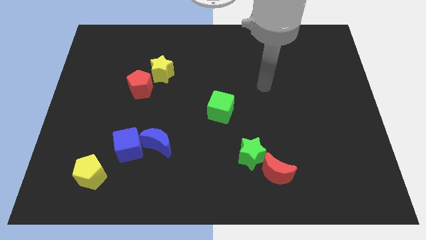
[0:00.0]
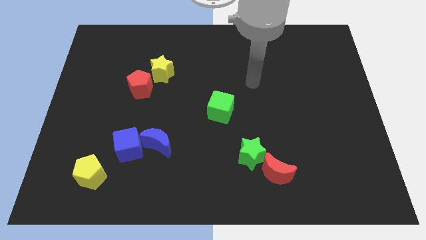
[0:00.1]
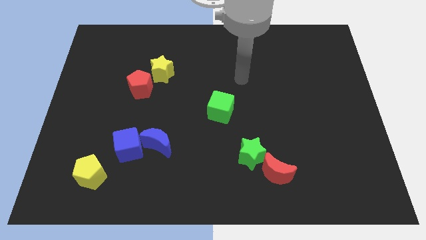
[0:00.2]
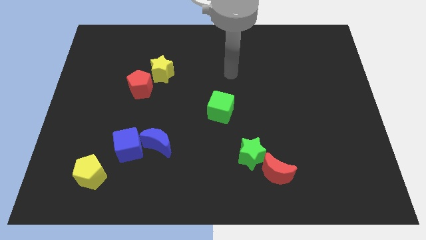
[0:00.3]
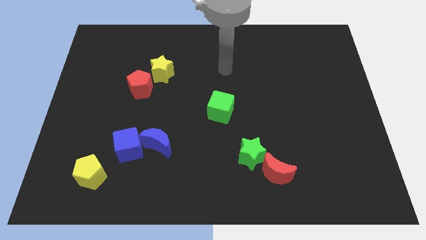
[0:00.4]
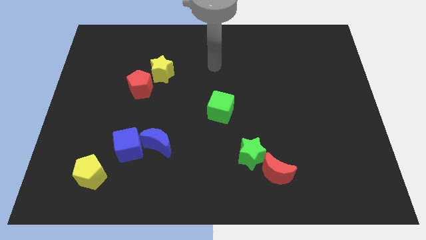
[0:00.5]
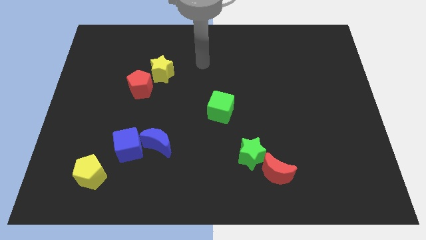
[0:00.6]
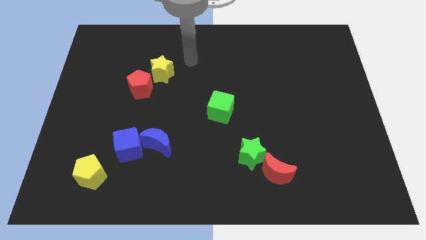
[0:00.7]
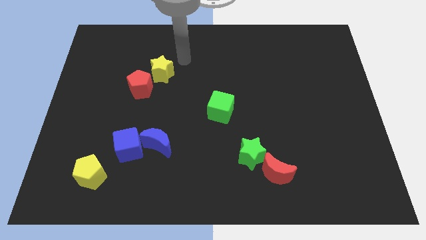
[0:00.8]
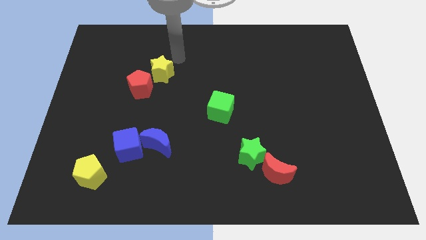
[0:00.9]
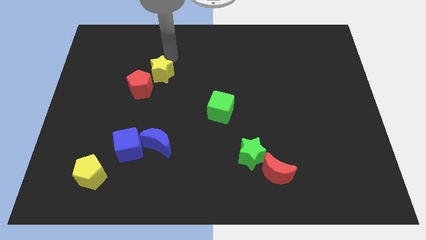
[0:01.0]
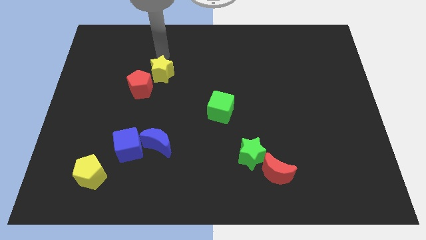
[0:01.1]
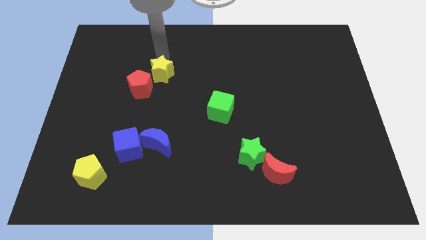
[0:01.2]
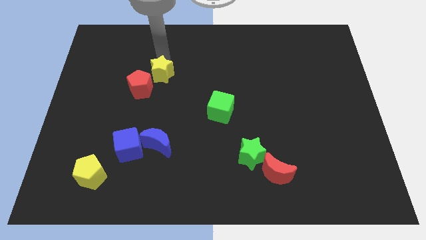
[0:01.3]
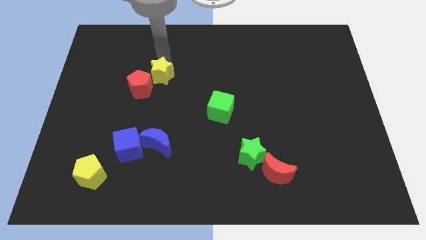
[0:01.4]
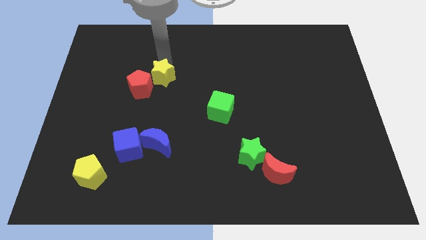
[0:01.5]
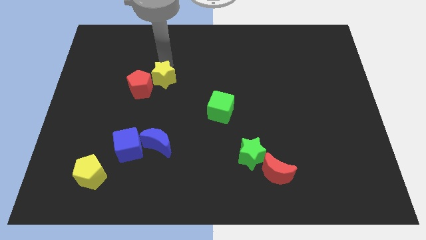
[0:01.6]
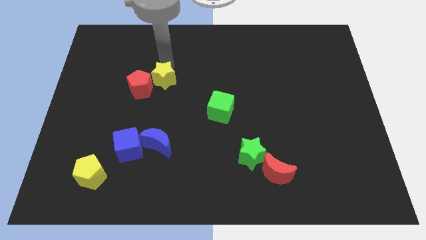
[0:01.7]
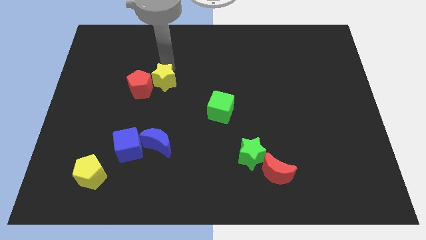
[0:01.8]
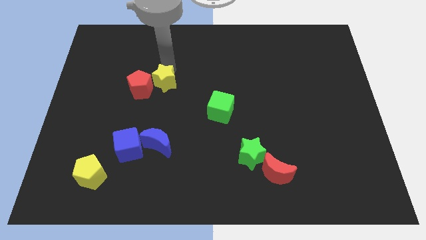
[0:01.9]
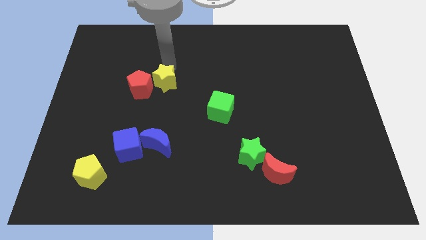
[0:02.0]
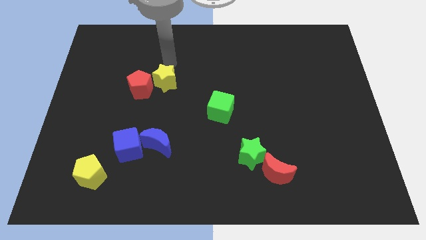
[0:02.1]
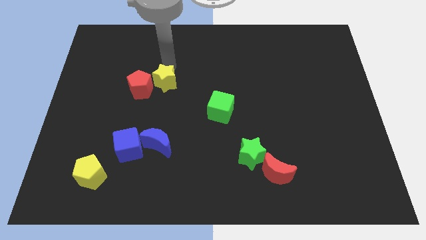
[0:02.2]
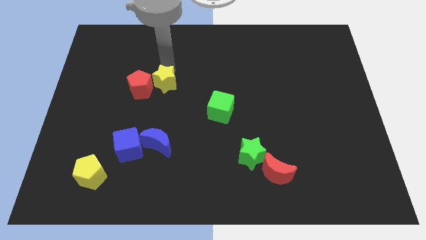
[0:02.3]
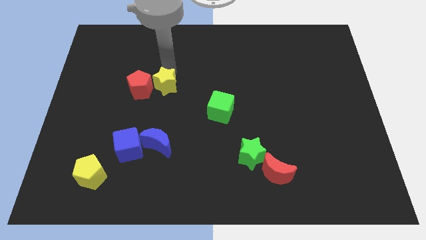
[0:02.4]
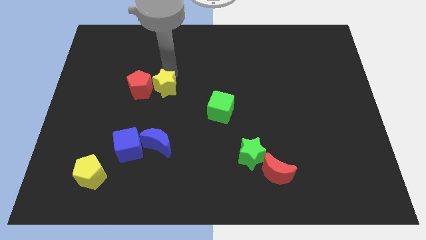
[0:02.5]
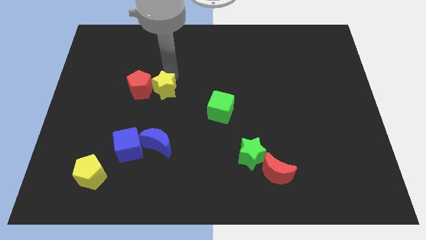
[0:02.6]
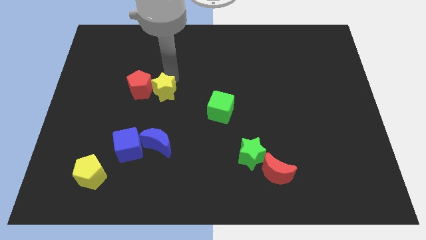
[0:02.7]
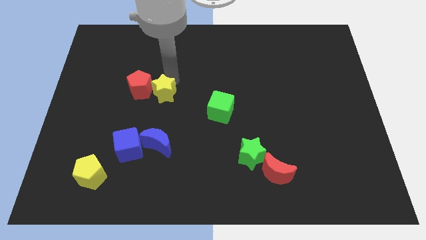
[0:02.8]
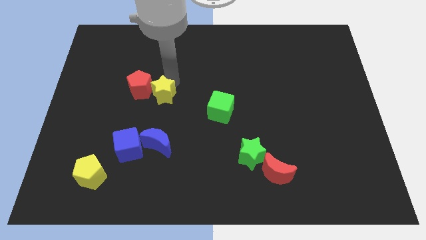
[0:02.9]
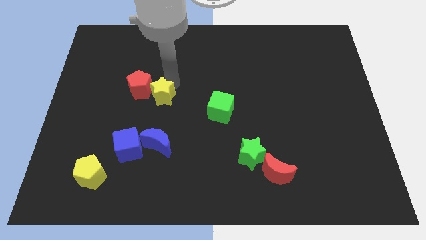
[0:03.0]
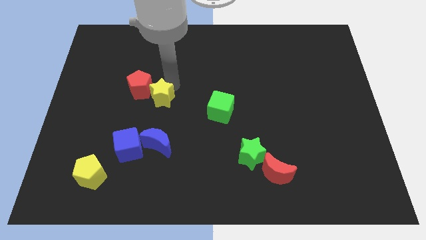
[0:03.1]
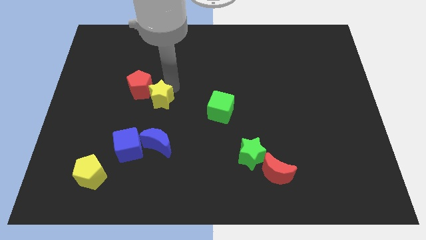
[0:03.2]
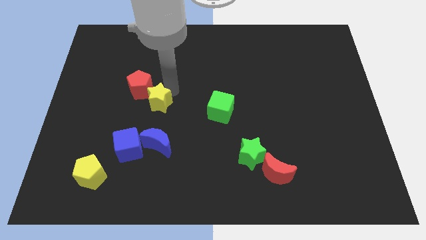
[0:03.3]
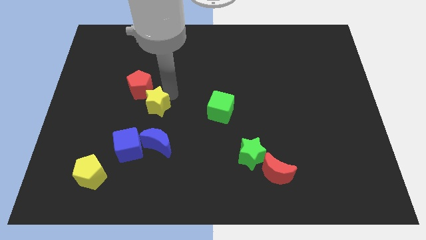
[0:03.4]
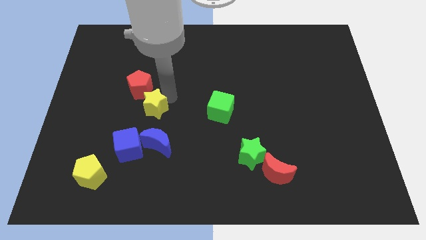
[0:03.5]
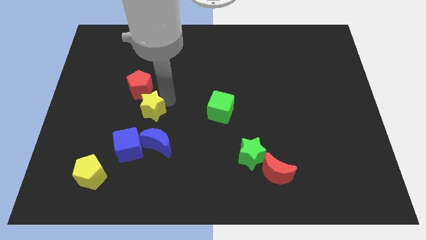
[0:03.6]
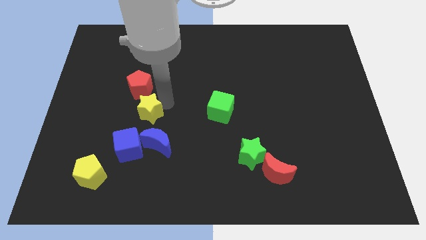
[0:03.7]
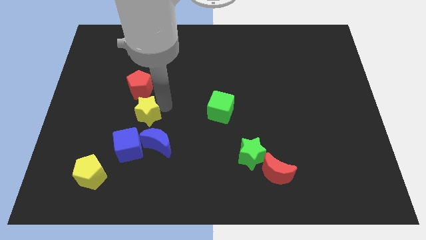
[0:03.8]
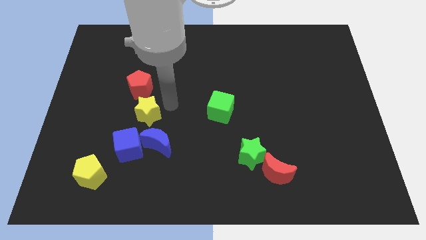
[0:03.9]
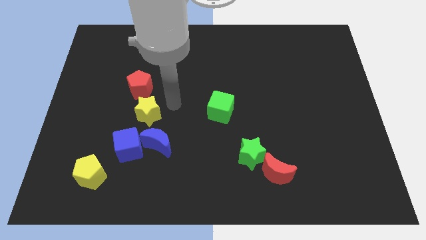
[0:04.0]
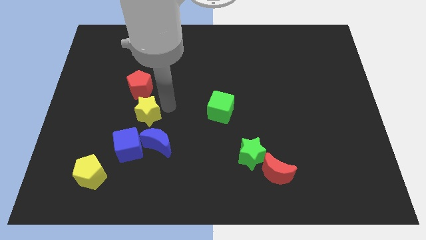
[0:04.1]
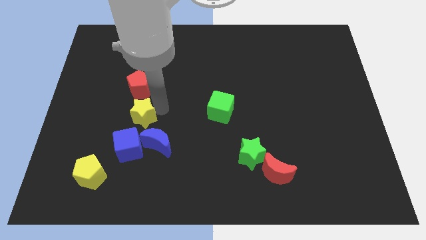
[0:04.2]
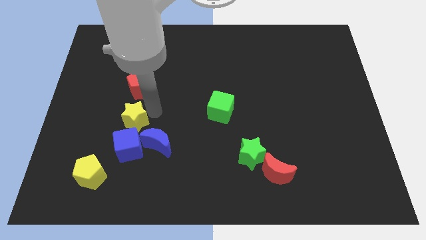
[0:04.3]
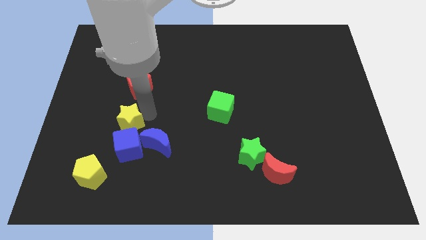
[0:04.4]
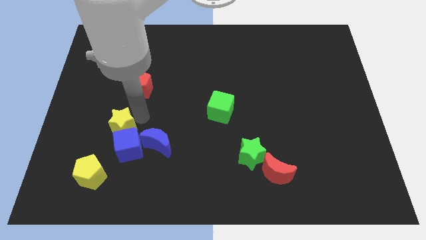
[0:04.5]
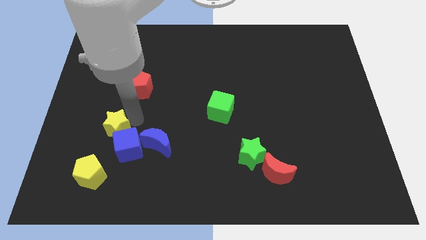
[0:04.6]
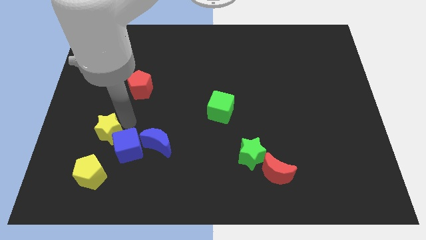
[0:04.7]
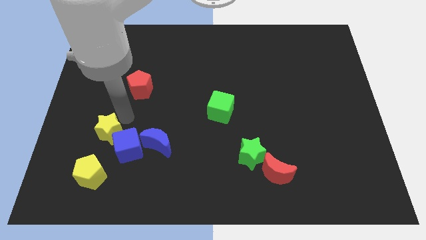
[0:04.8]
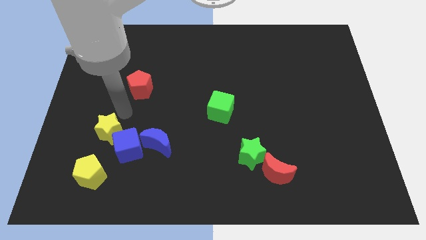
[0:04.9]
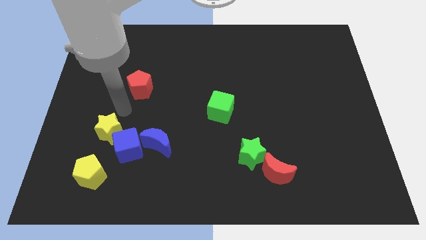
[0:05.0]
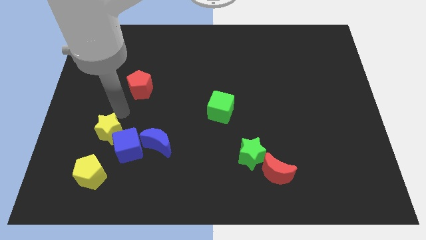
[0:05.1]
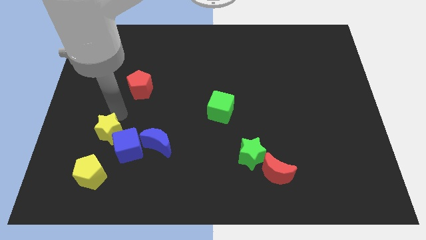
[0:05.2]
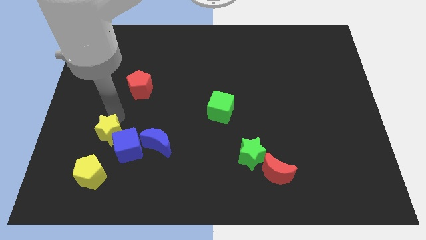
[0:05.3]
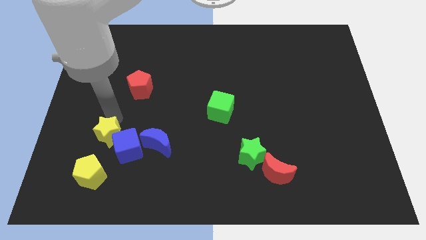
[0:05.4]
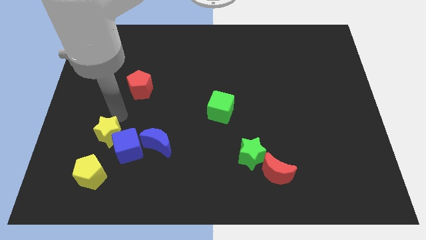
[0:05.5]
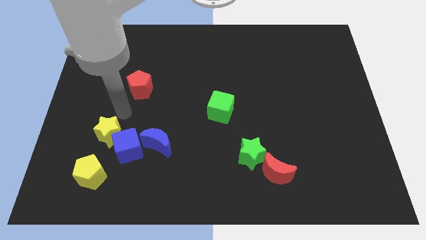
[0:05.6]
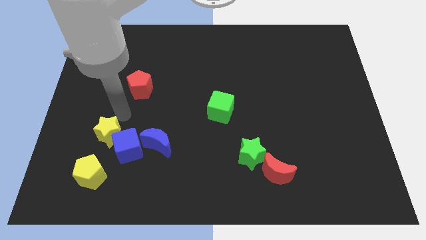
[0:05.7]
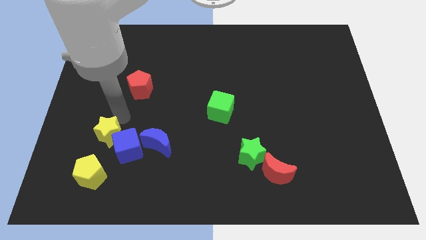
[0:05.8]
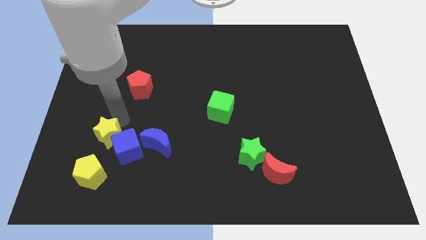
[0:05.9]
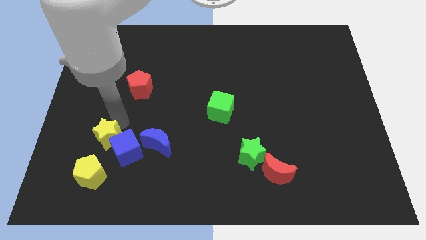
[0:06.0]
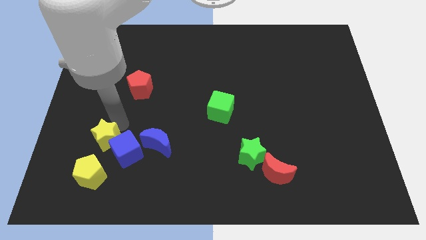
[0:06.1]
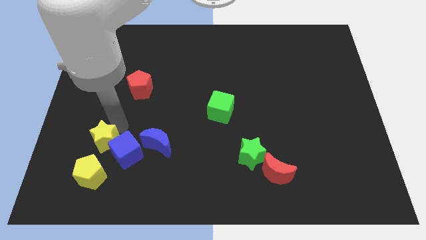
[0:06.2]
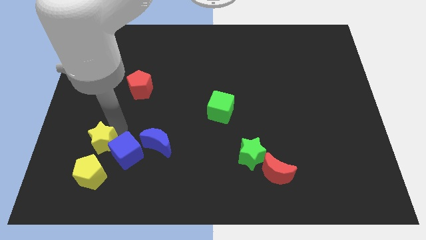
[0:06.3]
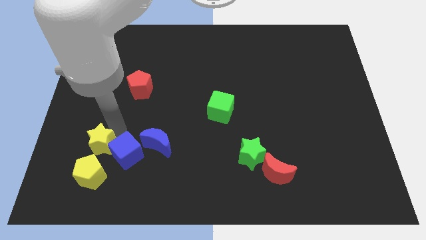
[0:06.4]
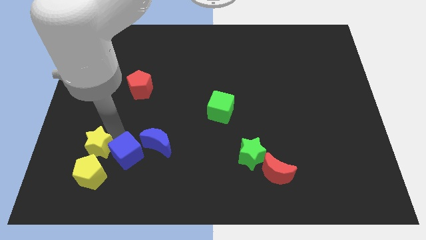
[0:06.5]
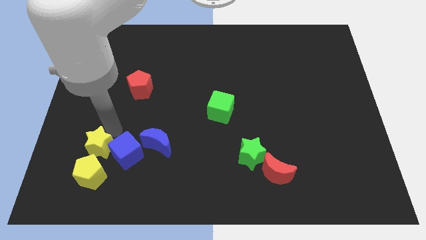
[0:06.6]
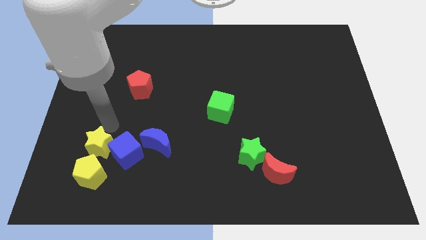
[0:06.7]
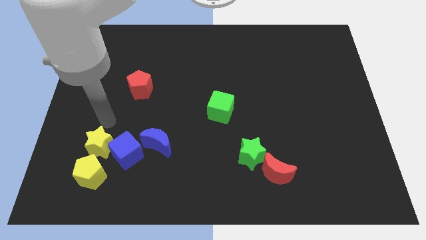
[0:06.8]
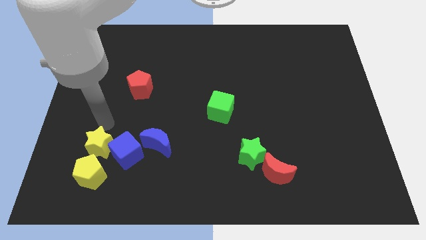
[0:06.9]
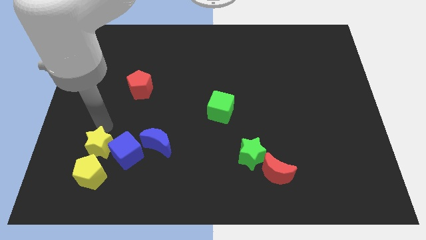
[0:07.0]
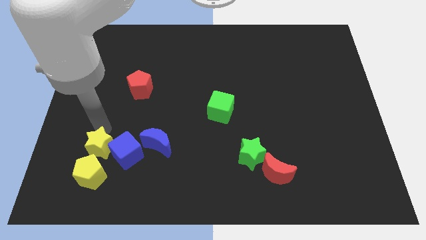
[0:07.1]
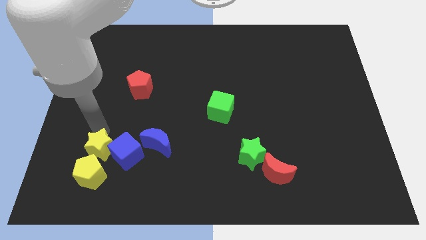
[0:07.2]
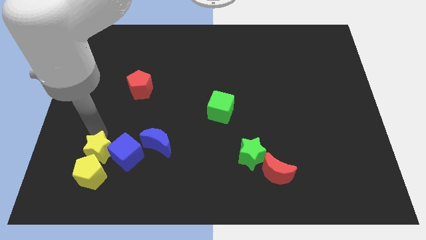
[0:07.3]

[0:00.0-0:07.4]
push the yellow star next to the yellow pentagon
